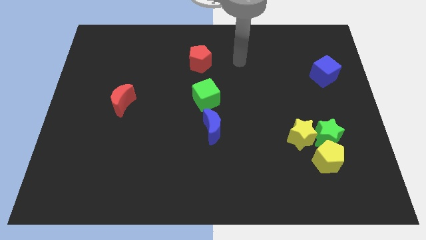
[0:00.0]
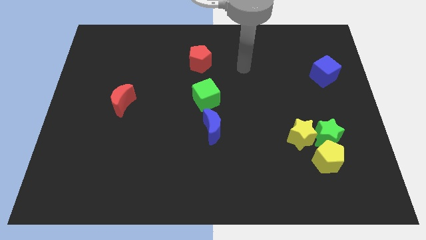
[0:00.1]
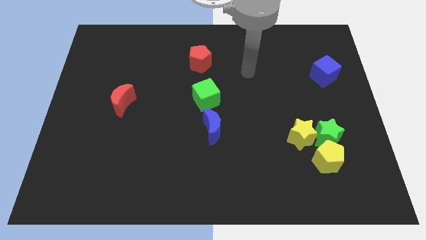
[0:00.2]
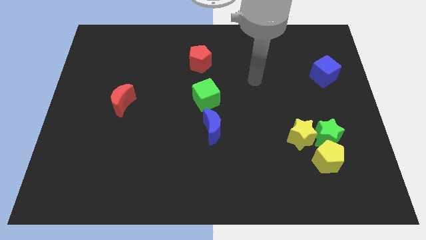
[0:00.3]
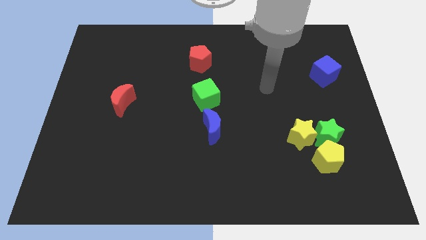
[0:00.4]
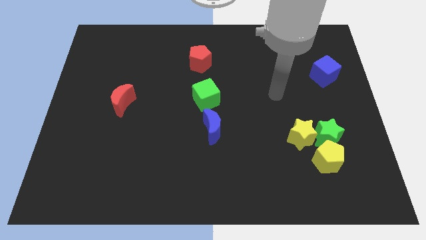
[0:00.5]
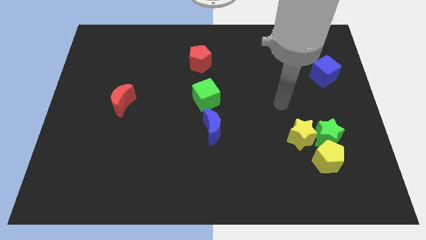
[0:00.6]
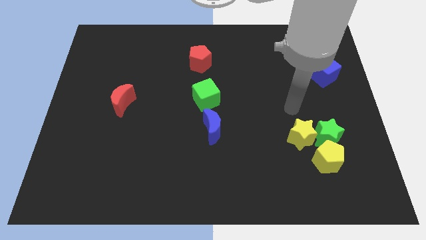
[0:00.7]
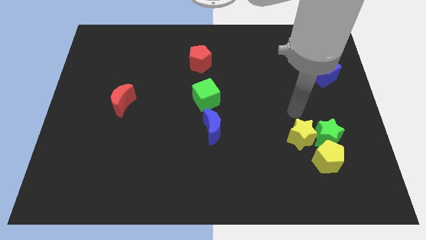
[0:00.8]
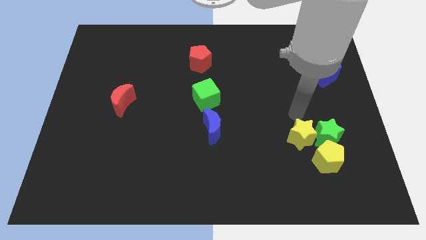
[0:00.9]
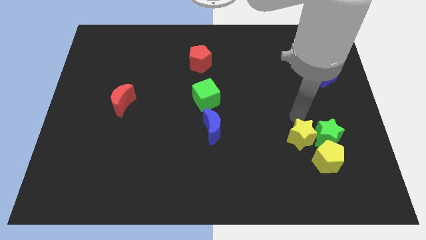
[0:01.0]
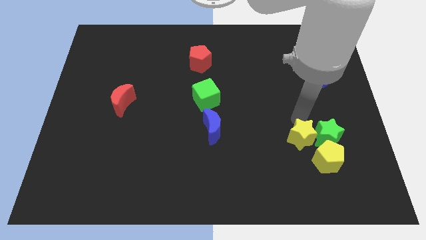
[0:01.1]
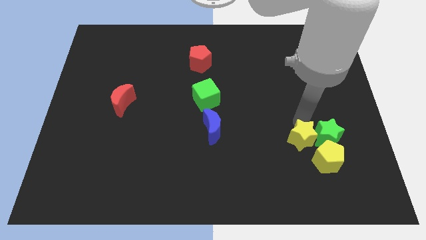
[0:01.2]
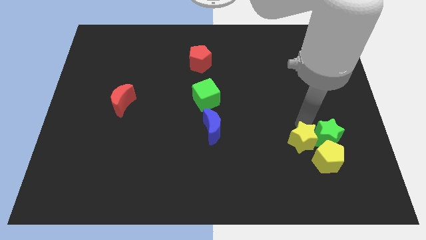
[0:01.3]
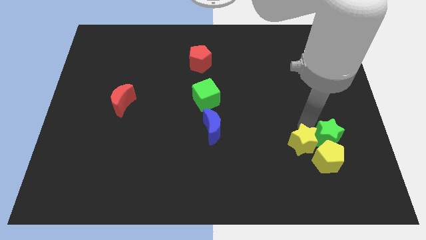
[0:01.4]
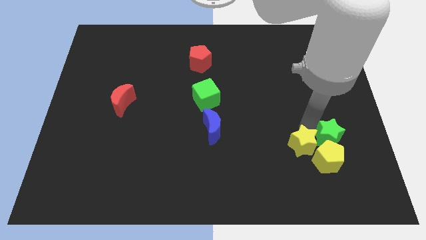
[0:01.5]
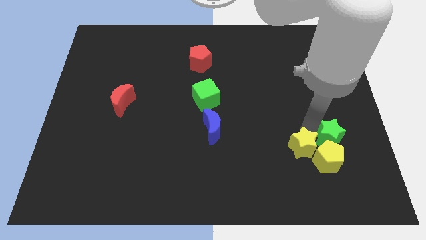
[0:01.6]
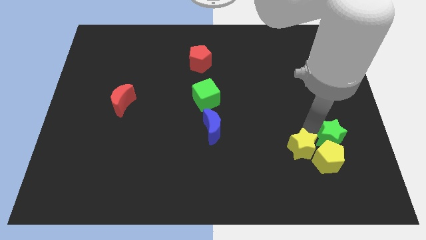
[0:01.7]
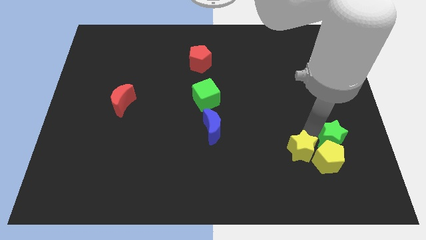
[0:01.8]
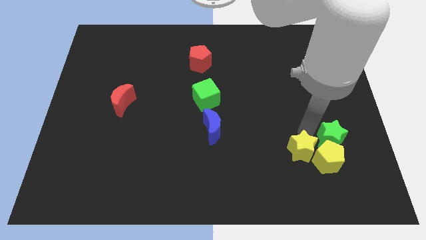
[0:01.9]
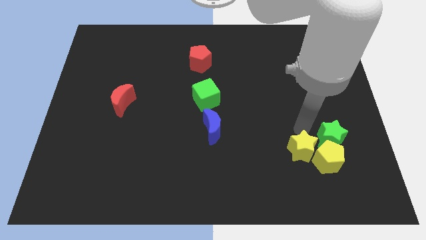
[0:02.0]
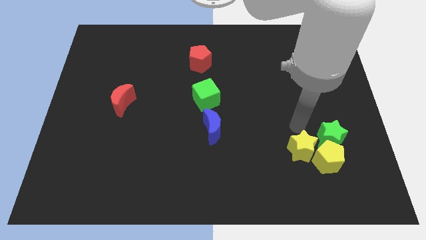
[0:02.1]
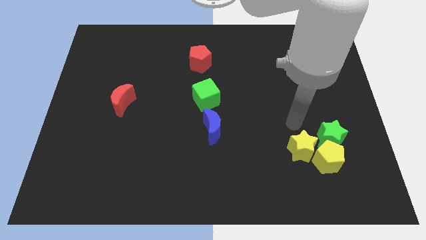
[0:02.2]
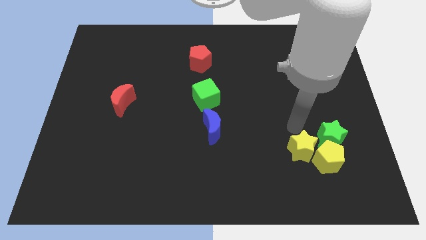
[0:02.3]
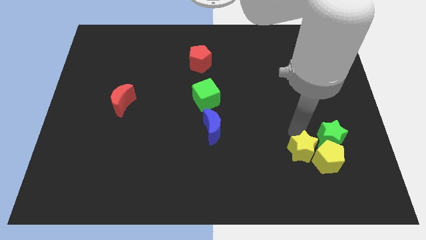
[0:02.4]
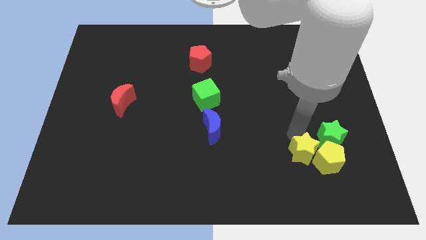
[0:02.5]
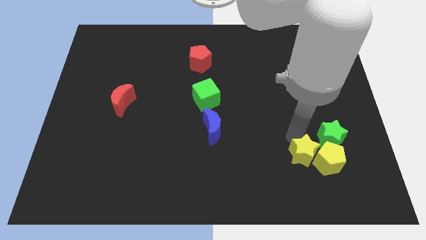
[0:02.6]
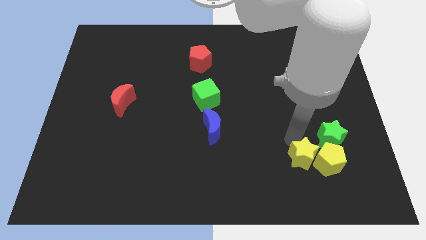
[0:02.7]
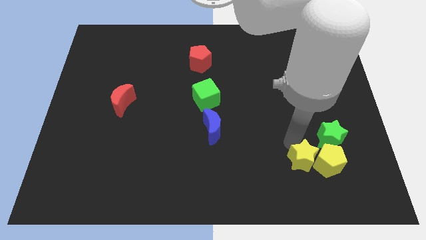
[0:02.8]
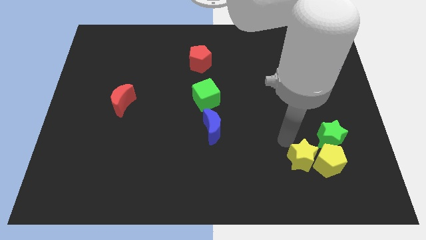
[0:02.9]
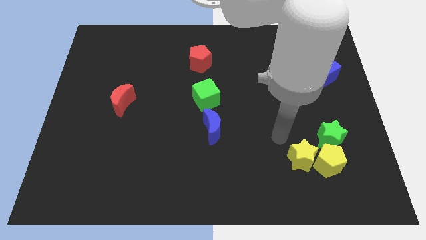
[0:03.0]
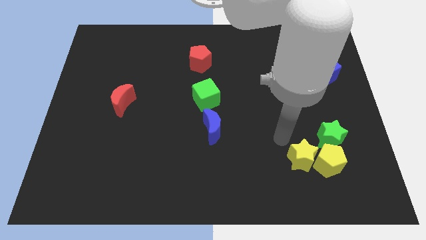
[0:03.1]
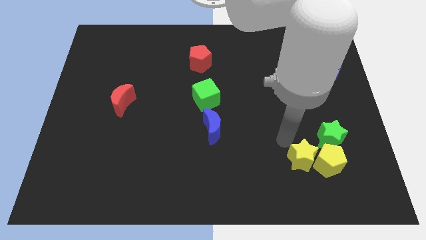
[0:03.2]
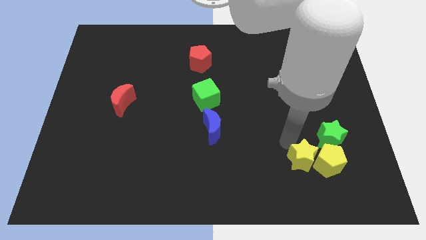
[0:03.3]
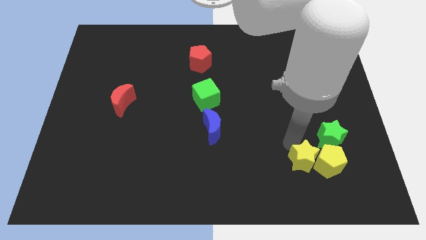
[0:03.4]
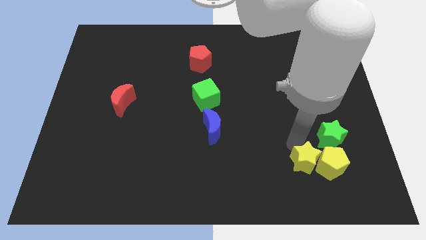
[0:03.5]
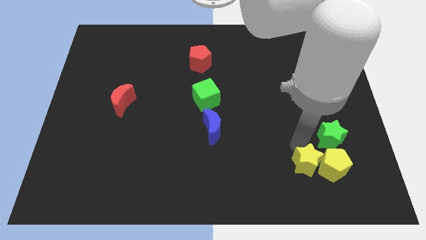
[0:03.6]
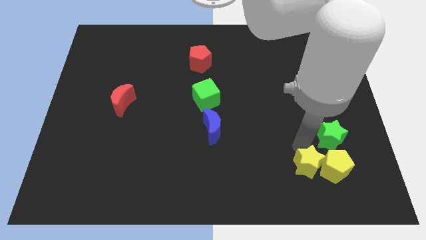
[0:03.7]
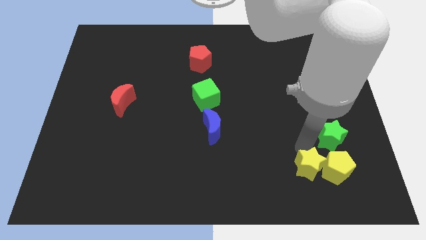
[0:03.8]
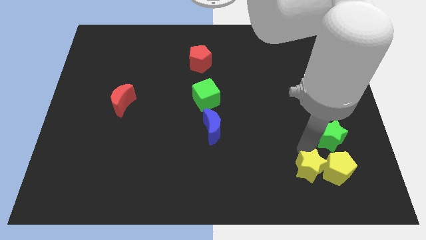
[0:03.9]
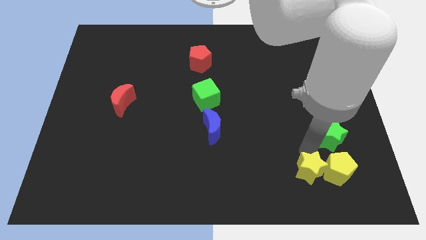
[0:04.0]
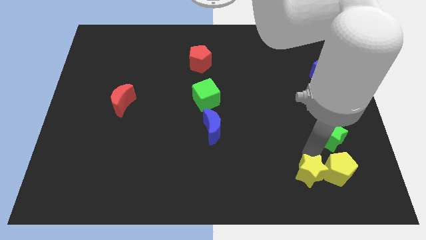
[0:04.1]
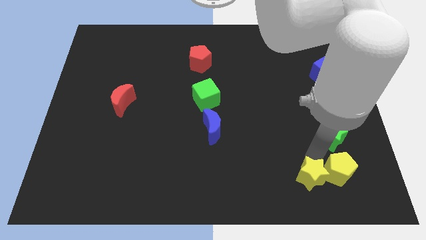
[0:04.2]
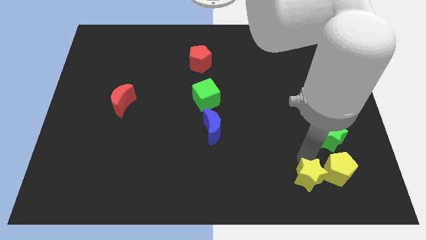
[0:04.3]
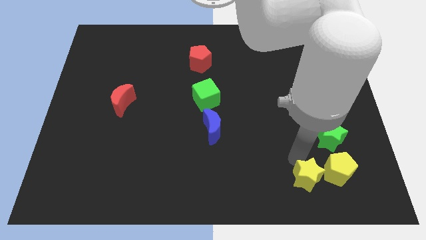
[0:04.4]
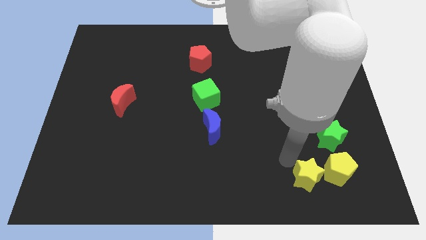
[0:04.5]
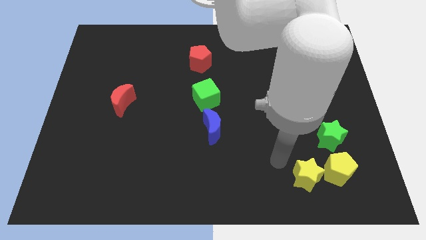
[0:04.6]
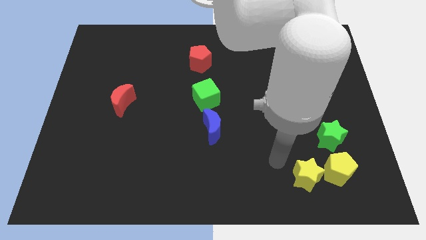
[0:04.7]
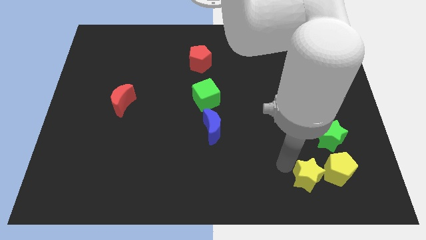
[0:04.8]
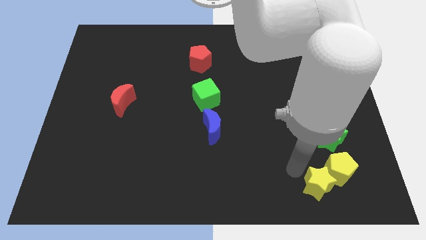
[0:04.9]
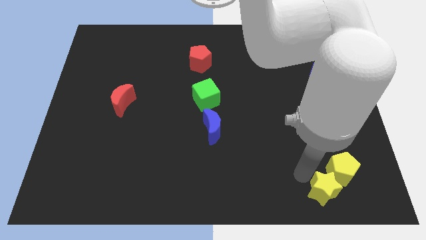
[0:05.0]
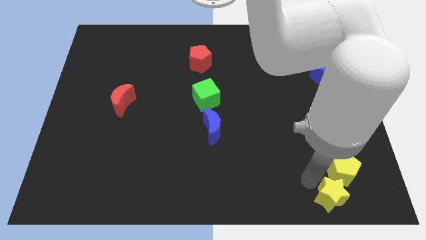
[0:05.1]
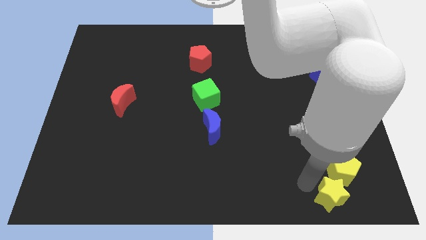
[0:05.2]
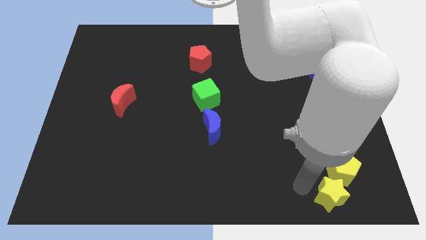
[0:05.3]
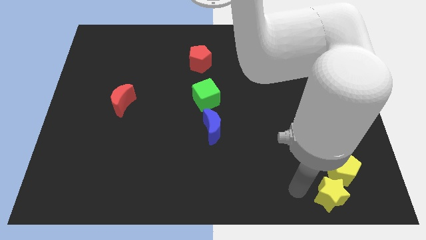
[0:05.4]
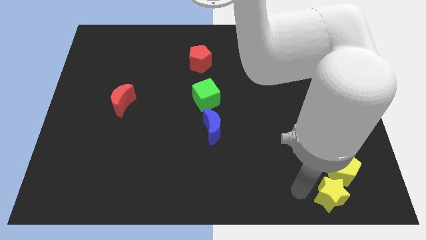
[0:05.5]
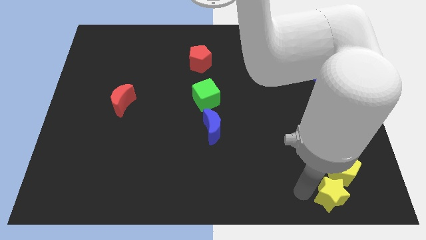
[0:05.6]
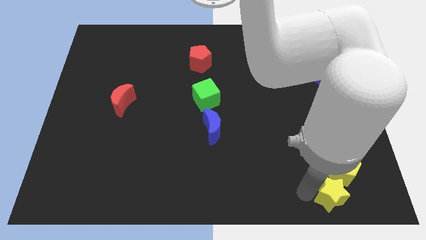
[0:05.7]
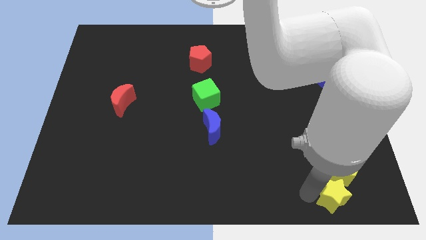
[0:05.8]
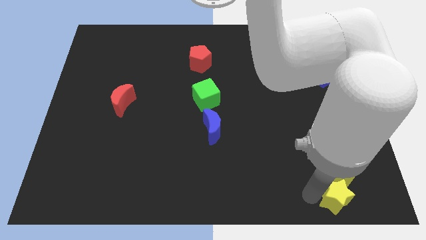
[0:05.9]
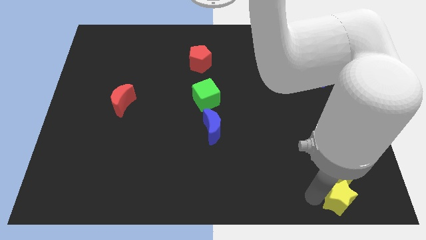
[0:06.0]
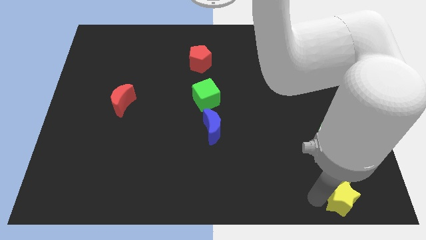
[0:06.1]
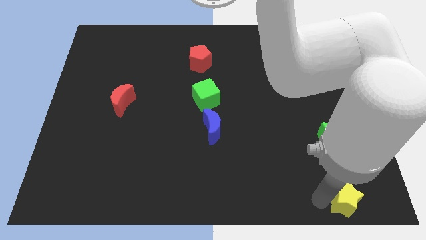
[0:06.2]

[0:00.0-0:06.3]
move the yellow star to the bottom right

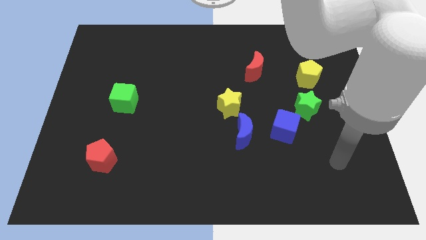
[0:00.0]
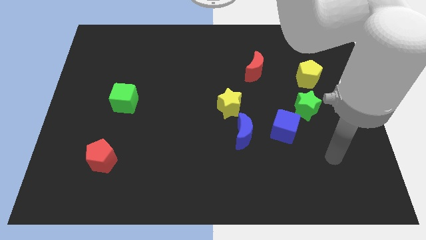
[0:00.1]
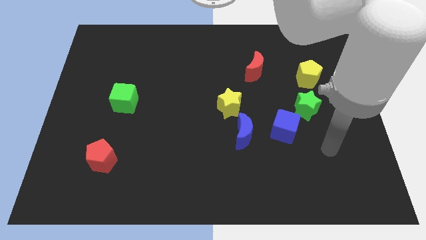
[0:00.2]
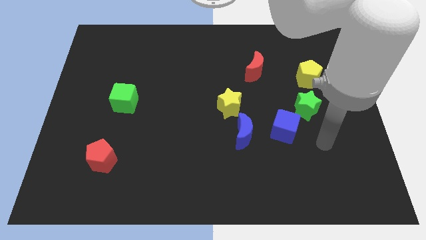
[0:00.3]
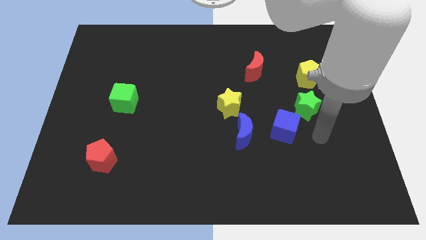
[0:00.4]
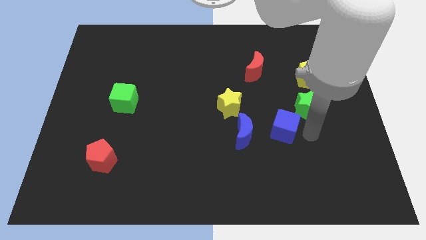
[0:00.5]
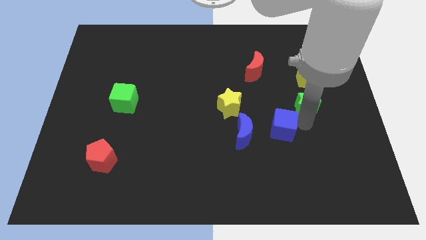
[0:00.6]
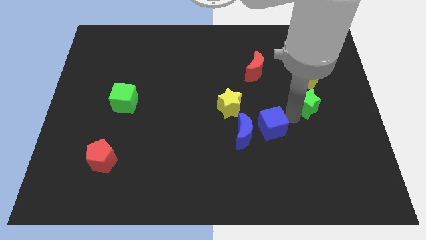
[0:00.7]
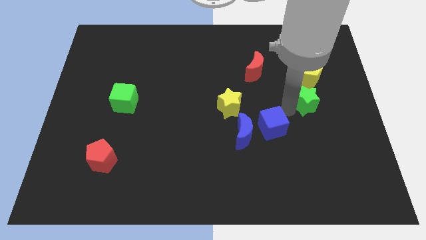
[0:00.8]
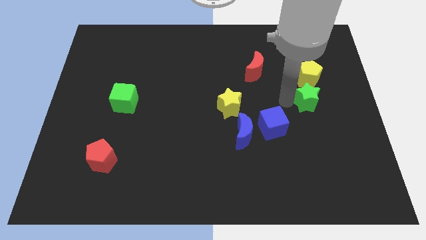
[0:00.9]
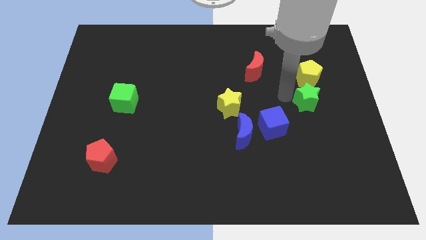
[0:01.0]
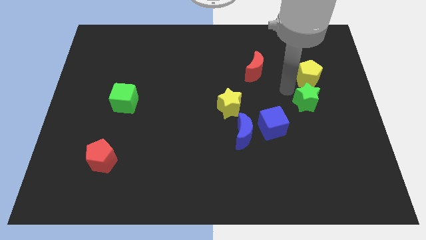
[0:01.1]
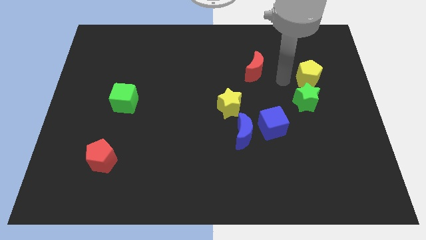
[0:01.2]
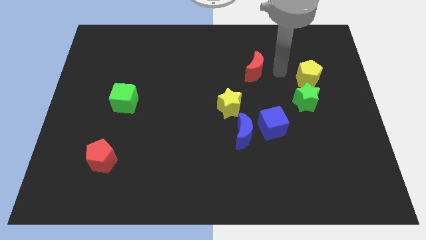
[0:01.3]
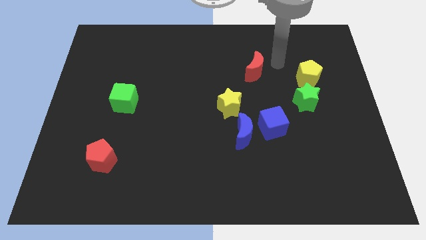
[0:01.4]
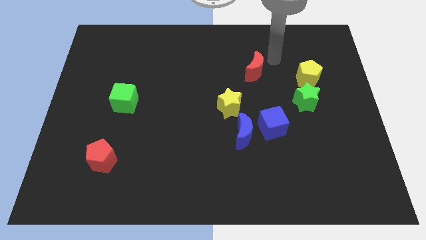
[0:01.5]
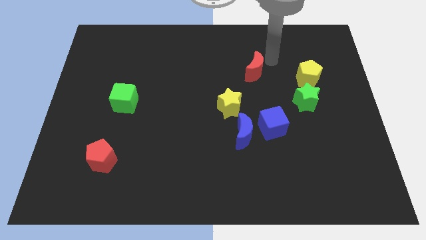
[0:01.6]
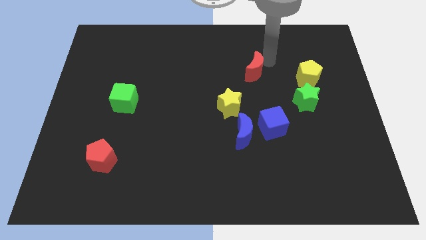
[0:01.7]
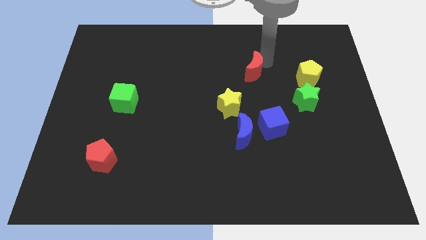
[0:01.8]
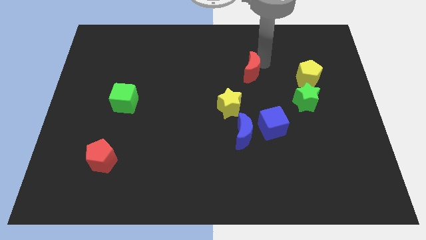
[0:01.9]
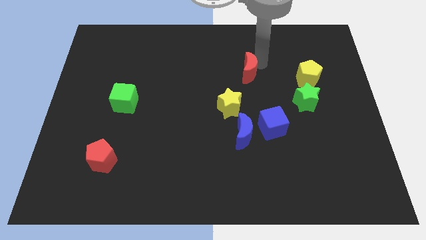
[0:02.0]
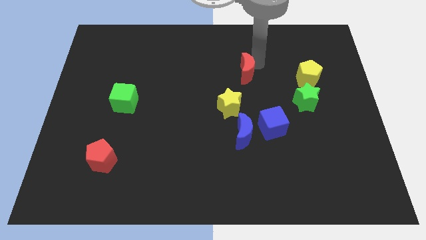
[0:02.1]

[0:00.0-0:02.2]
slide the red moon to the center of the board
